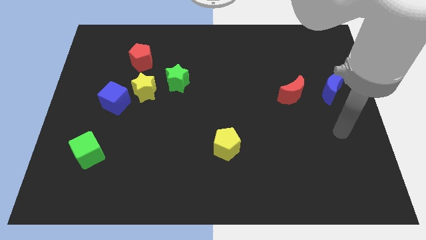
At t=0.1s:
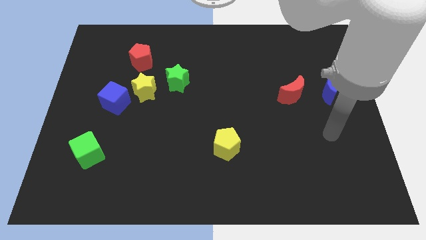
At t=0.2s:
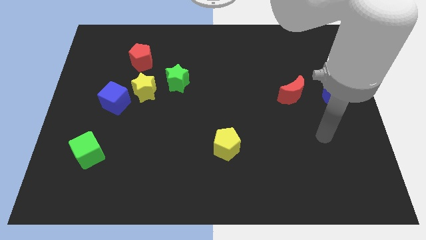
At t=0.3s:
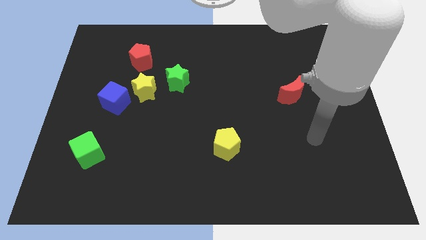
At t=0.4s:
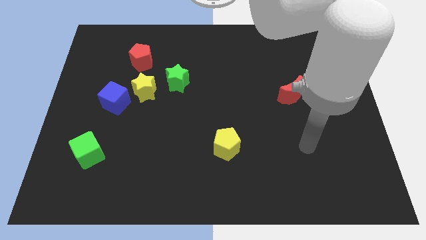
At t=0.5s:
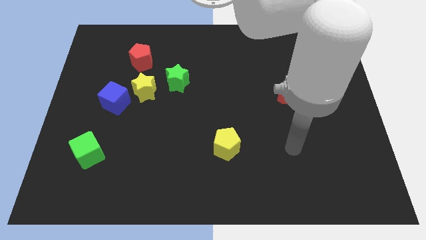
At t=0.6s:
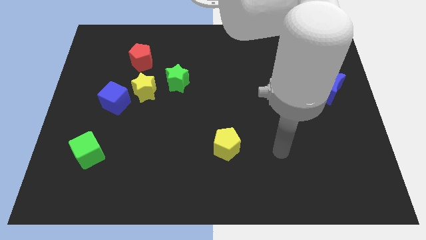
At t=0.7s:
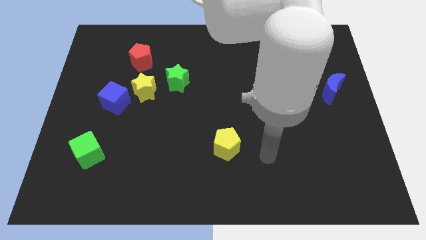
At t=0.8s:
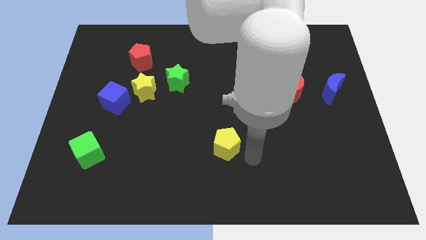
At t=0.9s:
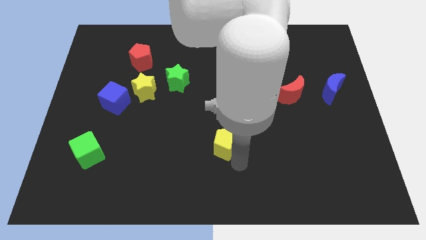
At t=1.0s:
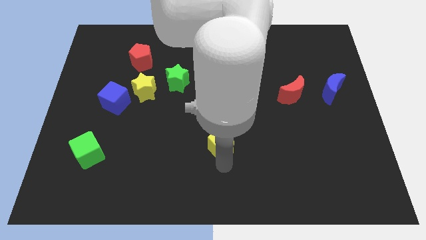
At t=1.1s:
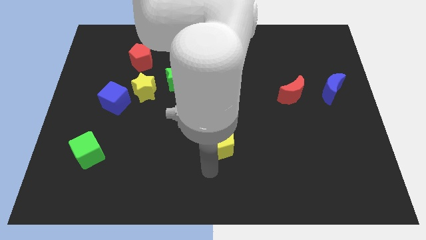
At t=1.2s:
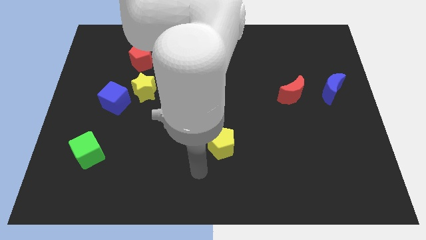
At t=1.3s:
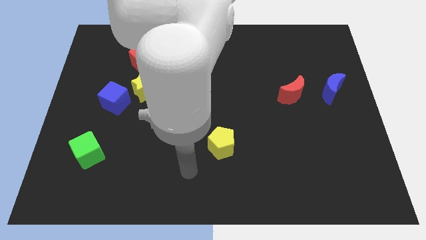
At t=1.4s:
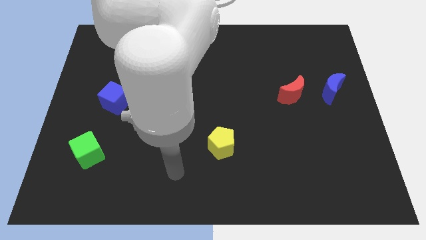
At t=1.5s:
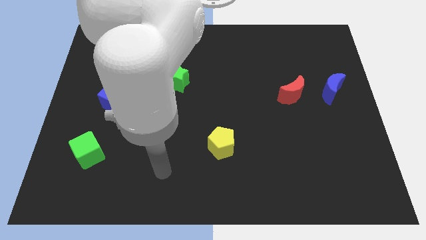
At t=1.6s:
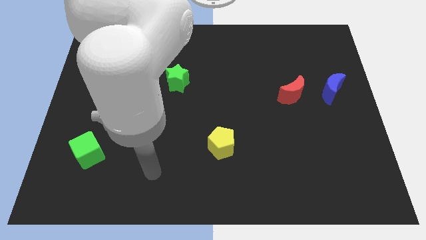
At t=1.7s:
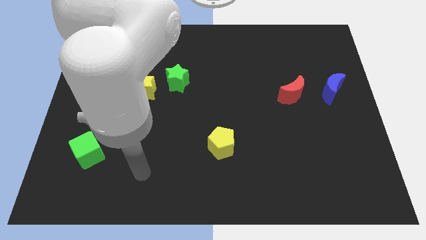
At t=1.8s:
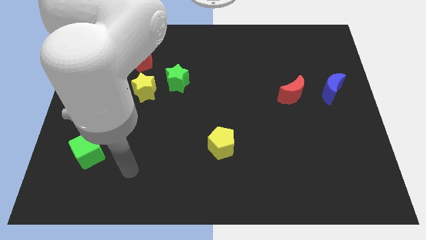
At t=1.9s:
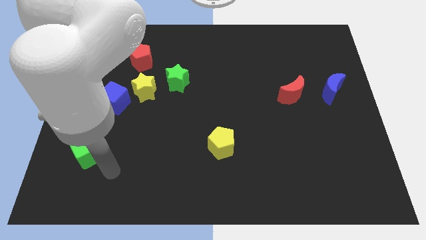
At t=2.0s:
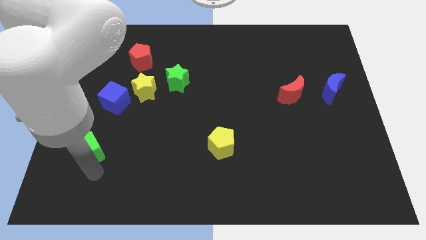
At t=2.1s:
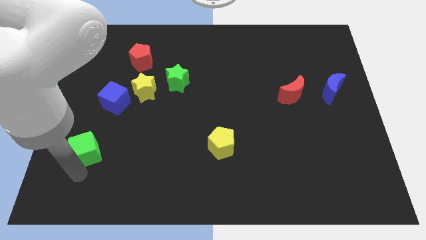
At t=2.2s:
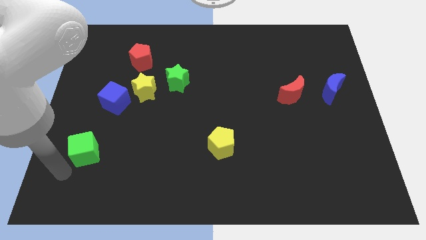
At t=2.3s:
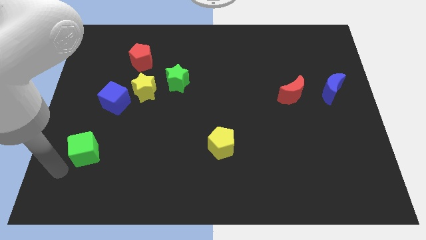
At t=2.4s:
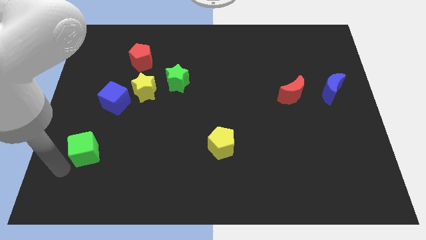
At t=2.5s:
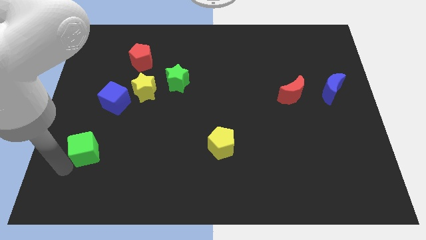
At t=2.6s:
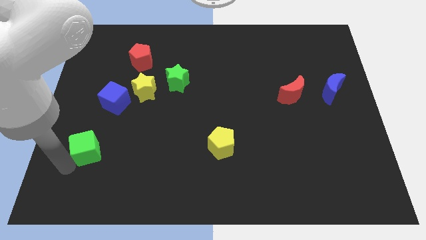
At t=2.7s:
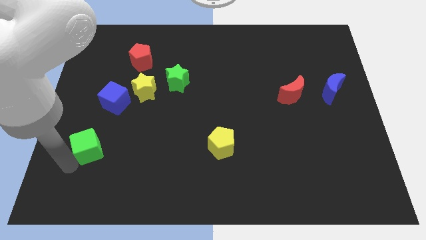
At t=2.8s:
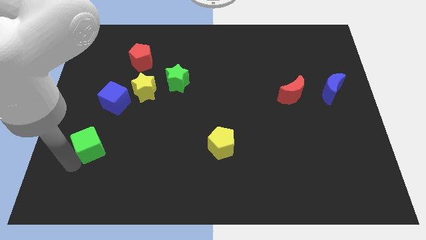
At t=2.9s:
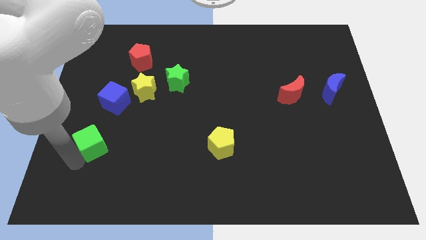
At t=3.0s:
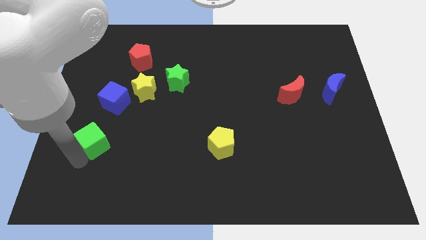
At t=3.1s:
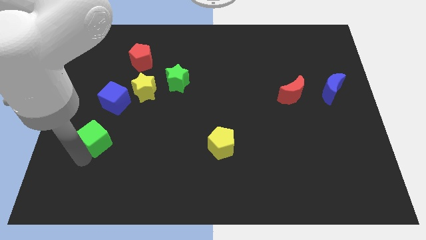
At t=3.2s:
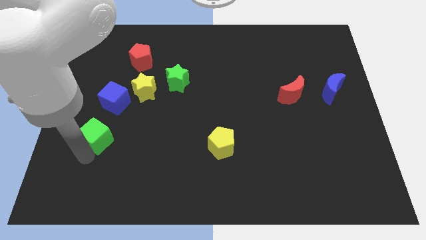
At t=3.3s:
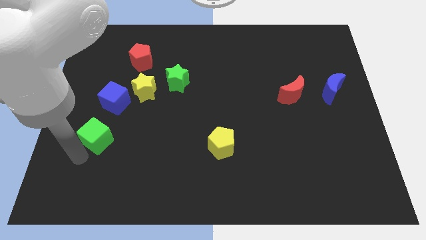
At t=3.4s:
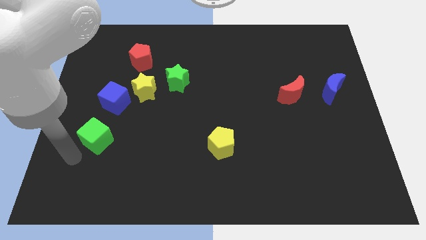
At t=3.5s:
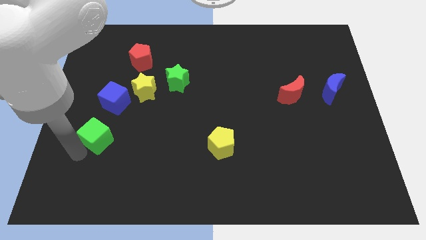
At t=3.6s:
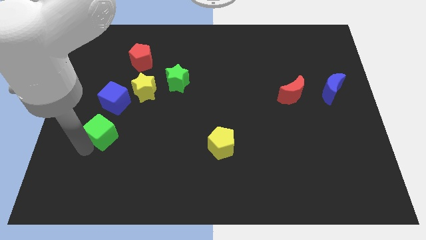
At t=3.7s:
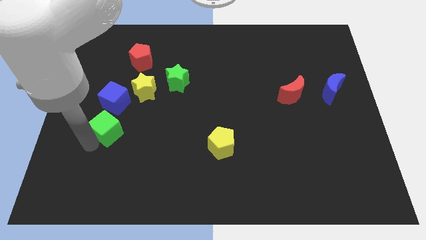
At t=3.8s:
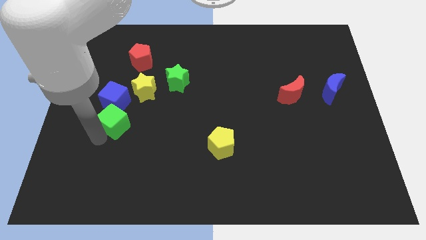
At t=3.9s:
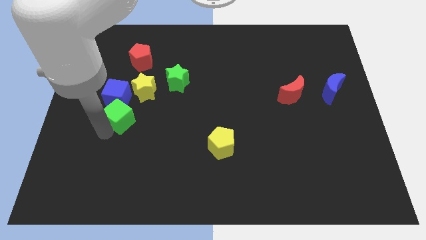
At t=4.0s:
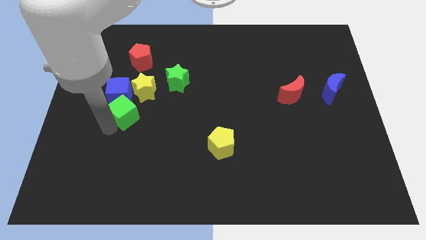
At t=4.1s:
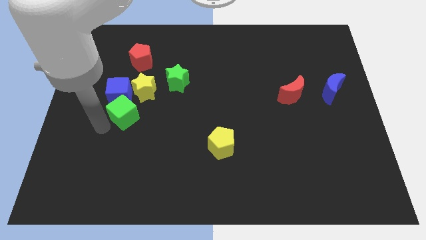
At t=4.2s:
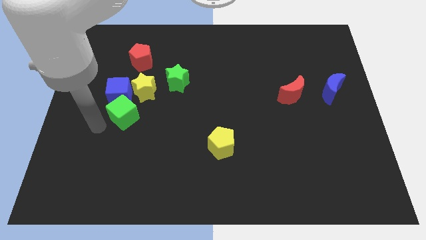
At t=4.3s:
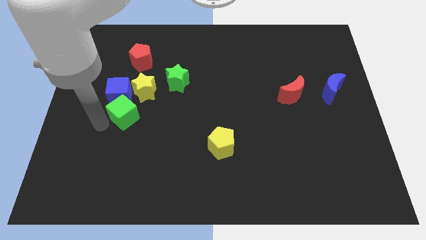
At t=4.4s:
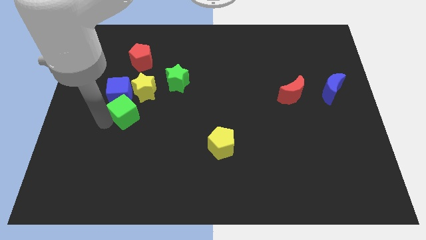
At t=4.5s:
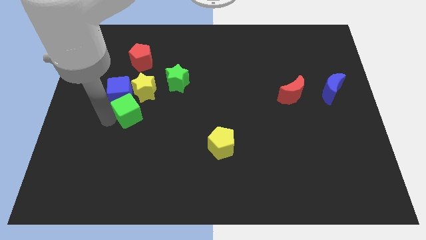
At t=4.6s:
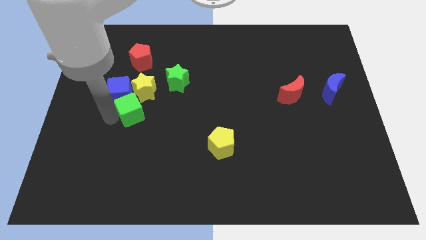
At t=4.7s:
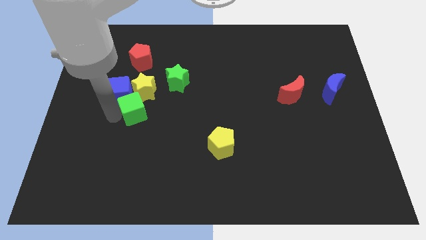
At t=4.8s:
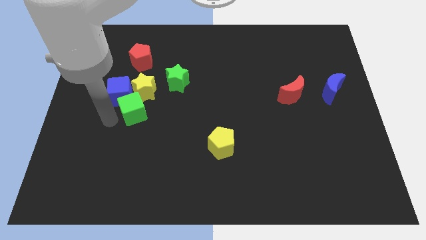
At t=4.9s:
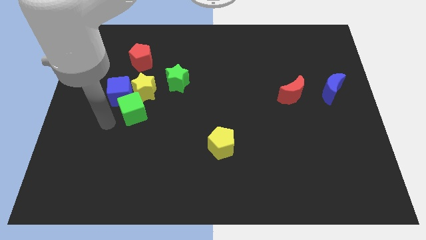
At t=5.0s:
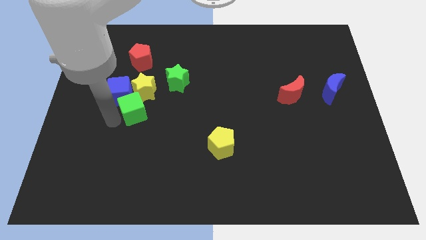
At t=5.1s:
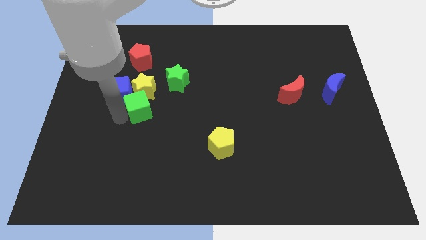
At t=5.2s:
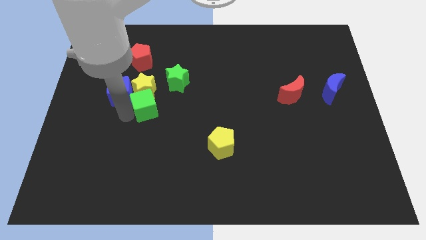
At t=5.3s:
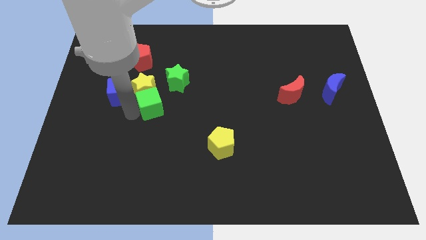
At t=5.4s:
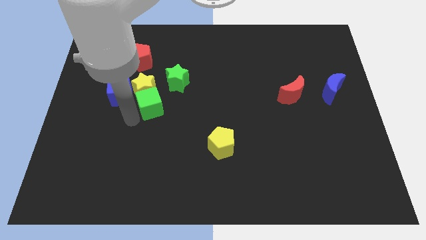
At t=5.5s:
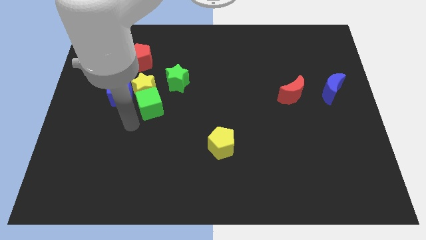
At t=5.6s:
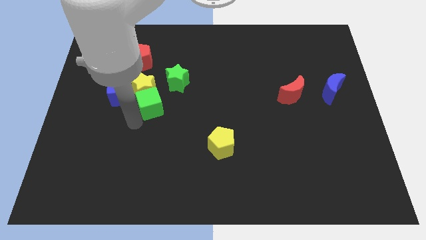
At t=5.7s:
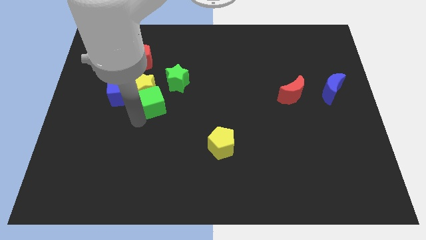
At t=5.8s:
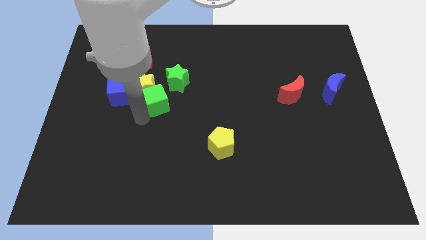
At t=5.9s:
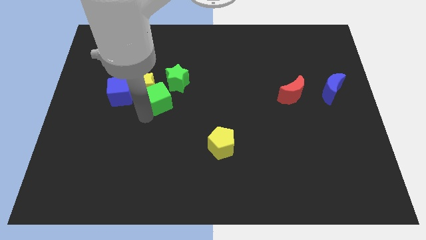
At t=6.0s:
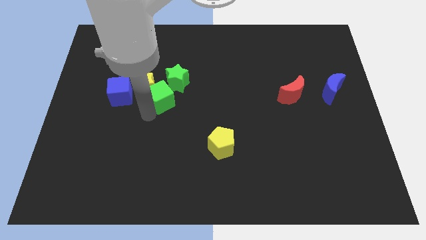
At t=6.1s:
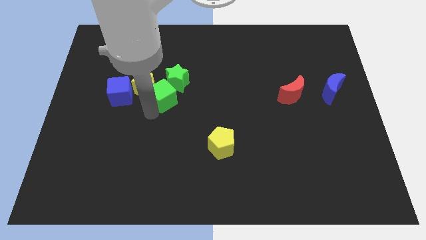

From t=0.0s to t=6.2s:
put the green cube next to the green star

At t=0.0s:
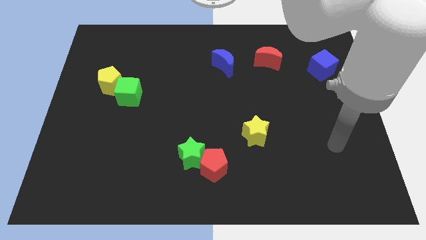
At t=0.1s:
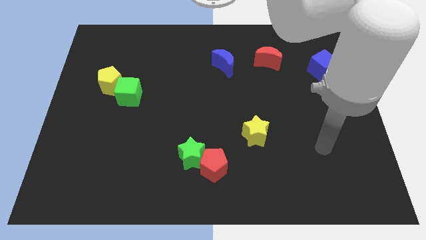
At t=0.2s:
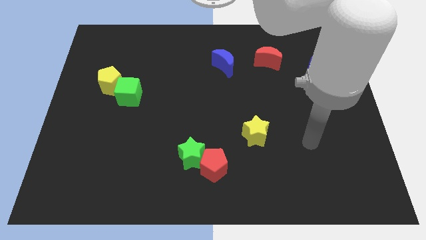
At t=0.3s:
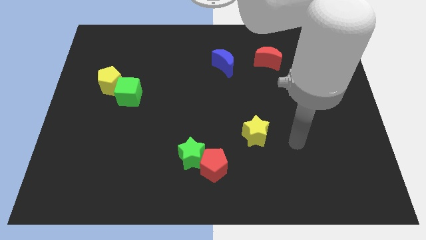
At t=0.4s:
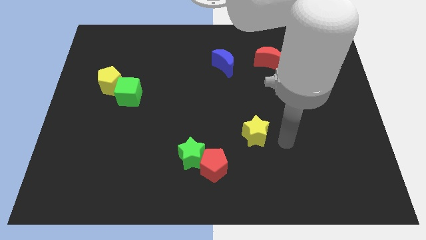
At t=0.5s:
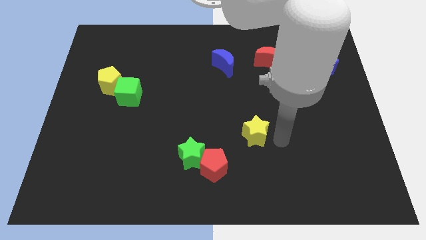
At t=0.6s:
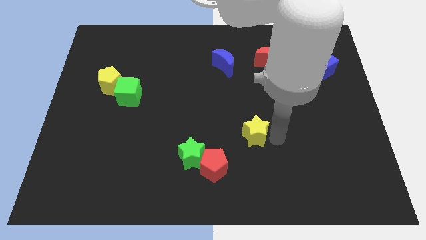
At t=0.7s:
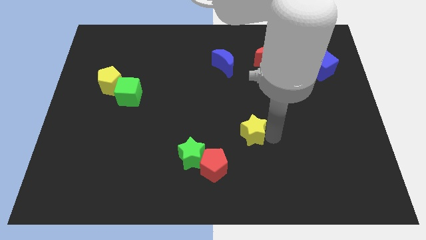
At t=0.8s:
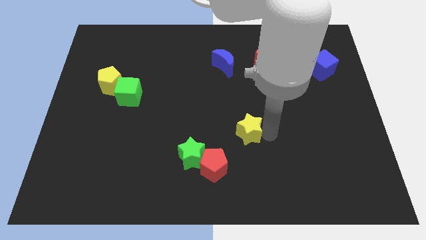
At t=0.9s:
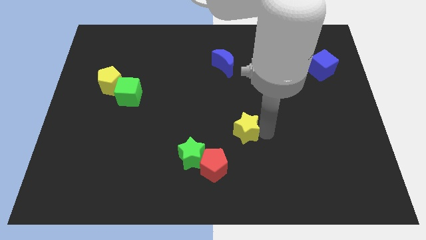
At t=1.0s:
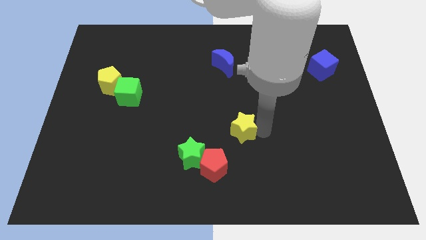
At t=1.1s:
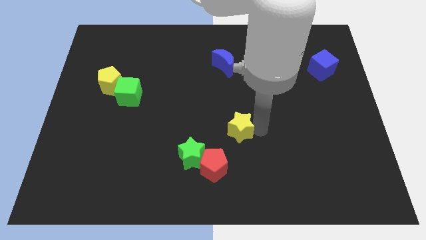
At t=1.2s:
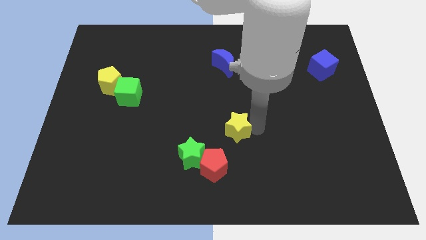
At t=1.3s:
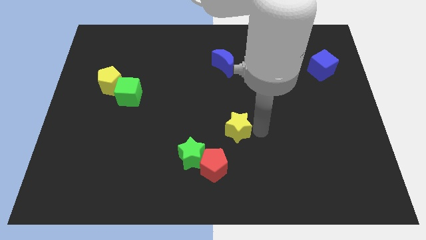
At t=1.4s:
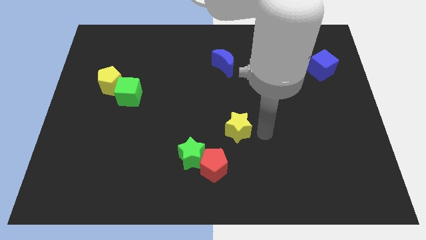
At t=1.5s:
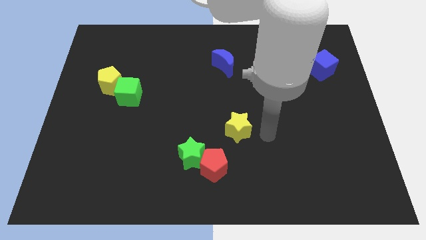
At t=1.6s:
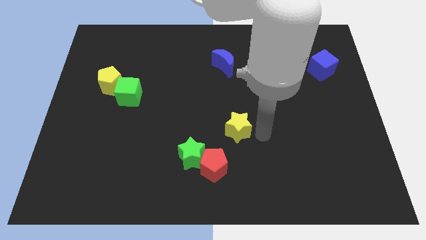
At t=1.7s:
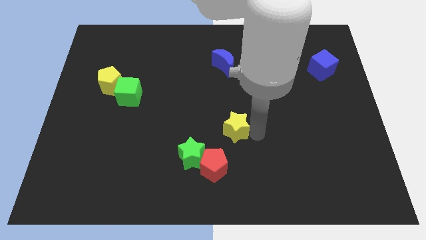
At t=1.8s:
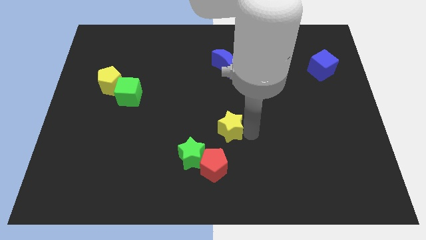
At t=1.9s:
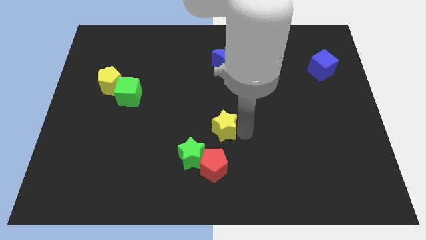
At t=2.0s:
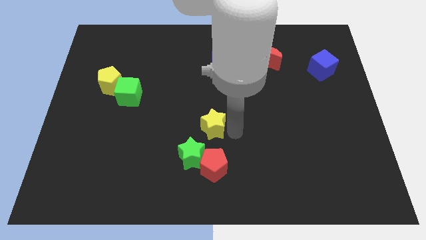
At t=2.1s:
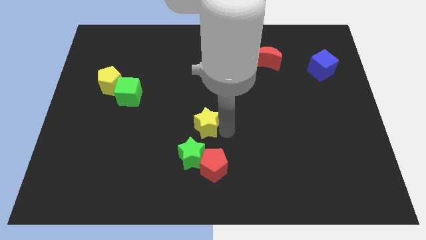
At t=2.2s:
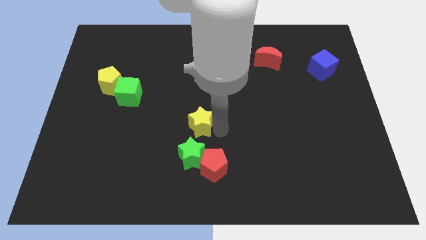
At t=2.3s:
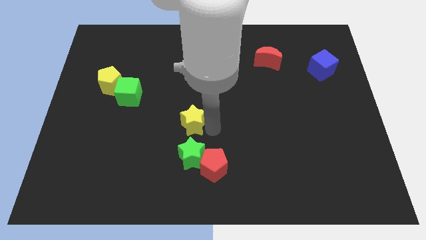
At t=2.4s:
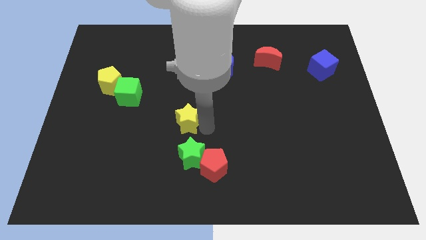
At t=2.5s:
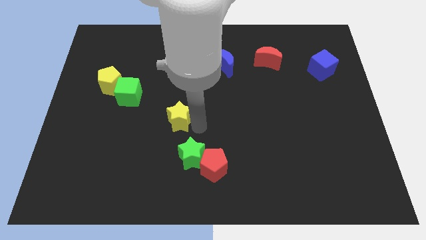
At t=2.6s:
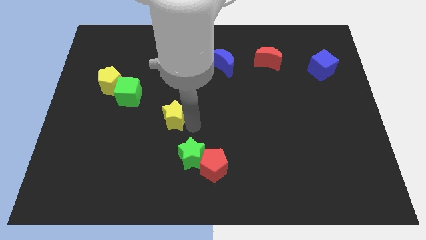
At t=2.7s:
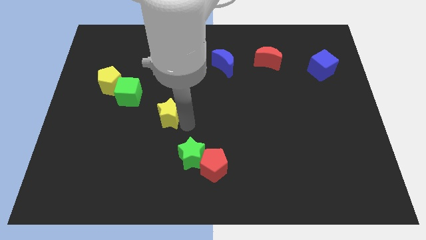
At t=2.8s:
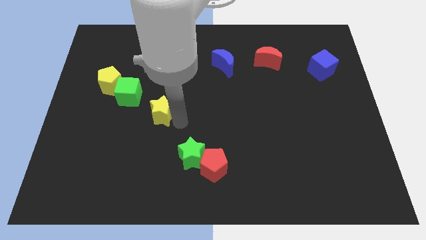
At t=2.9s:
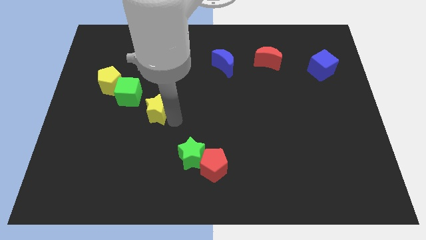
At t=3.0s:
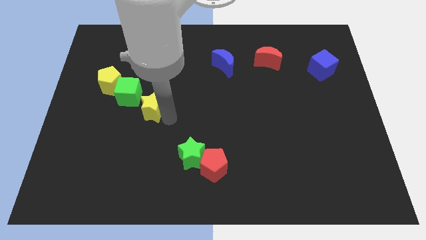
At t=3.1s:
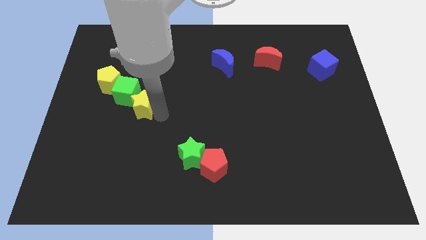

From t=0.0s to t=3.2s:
push the yellow star next to the green cube
